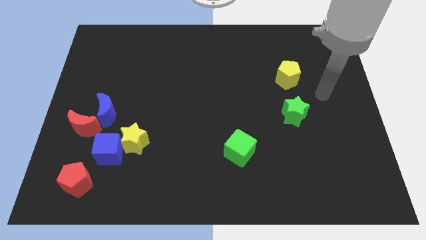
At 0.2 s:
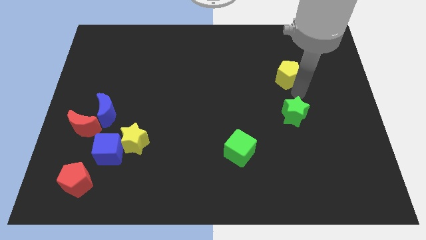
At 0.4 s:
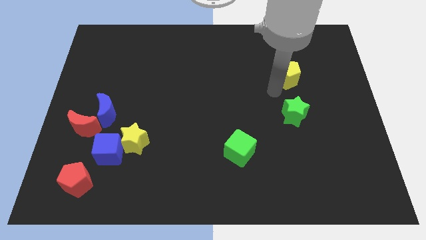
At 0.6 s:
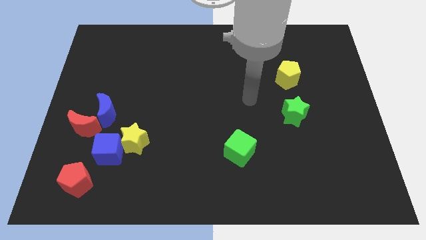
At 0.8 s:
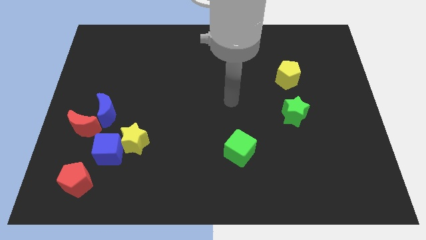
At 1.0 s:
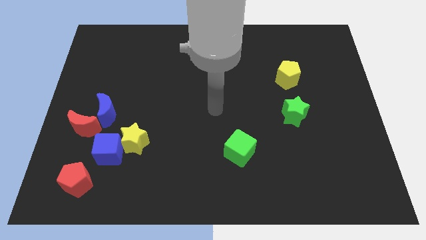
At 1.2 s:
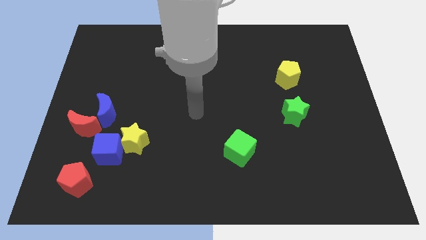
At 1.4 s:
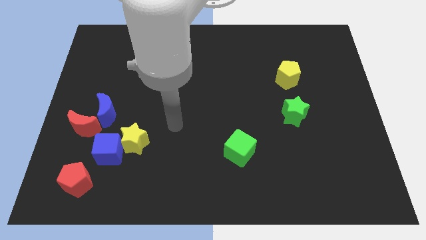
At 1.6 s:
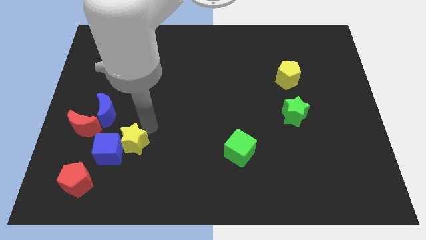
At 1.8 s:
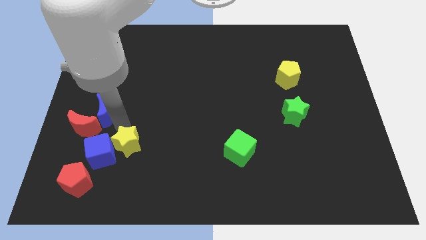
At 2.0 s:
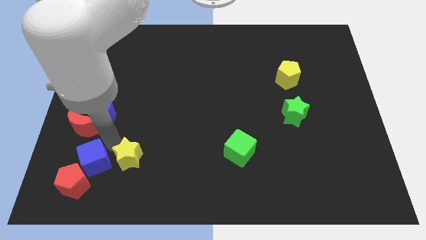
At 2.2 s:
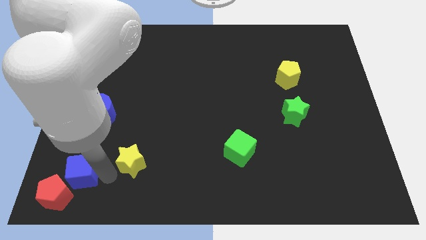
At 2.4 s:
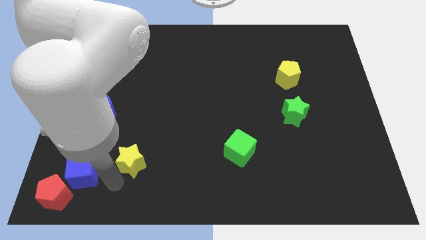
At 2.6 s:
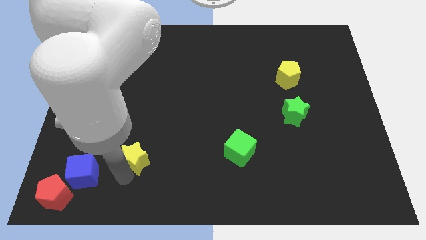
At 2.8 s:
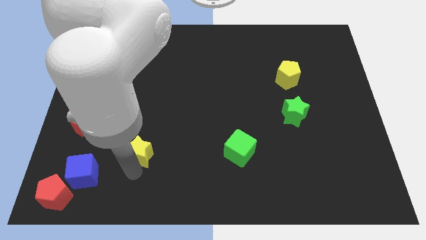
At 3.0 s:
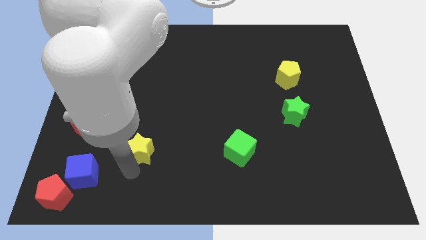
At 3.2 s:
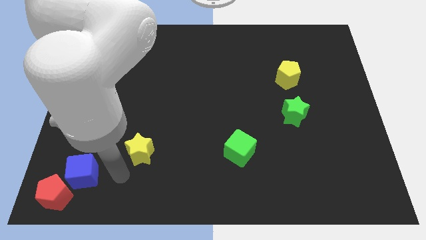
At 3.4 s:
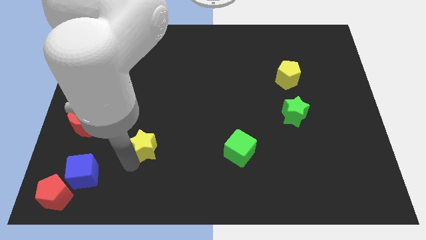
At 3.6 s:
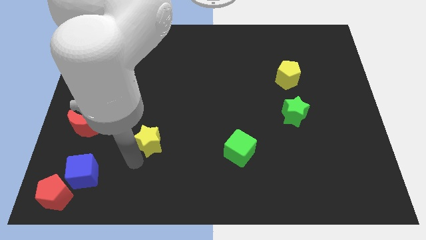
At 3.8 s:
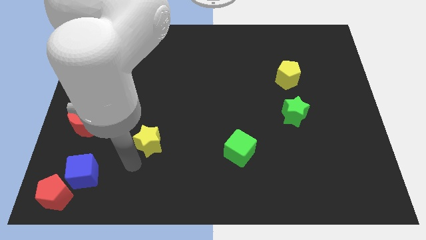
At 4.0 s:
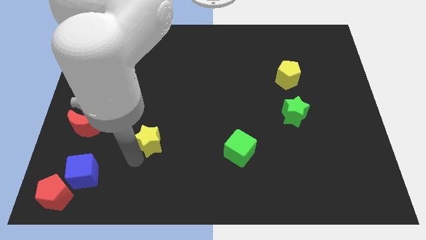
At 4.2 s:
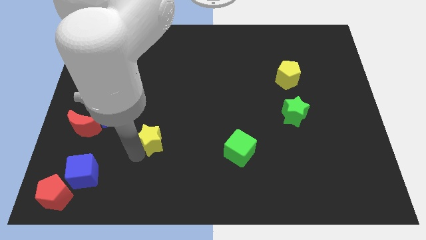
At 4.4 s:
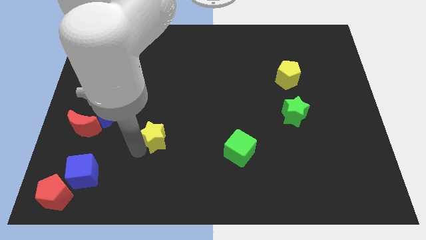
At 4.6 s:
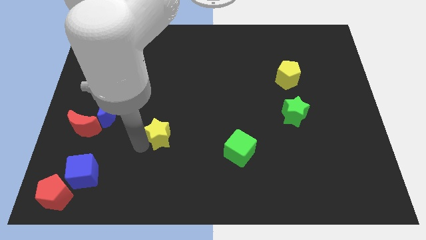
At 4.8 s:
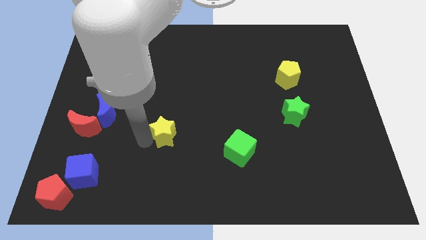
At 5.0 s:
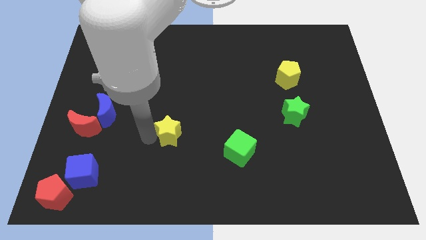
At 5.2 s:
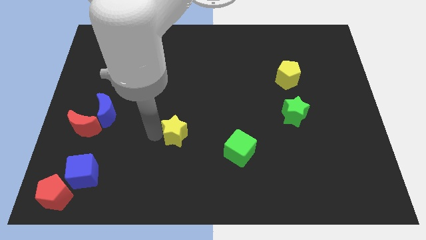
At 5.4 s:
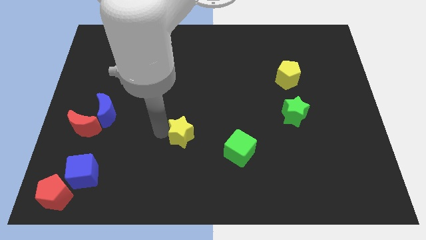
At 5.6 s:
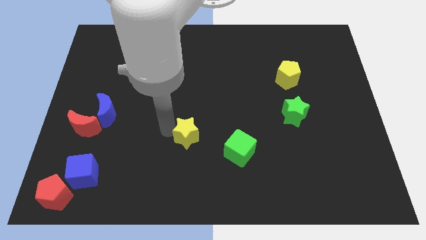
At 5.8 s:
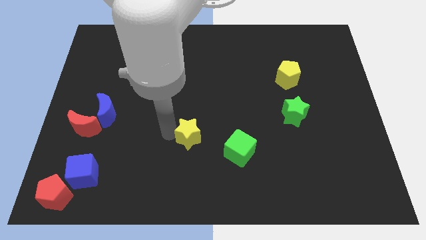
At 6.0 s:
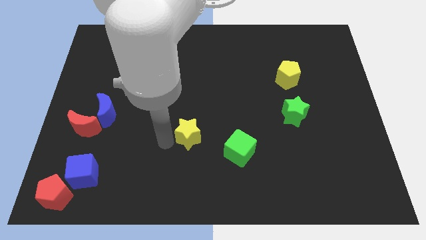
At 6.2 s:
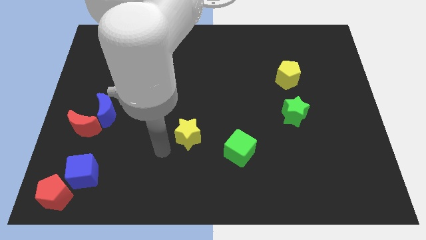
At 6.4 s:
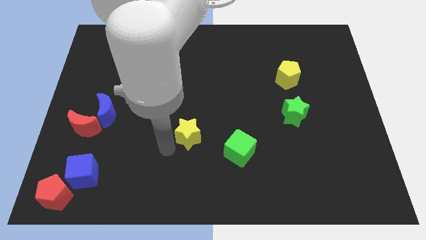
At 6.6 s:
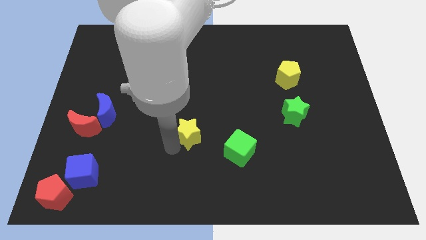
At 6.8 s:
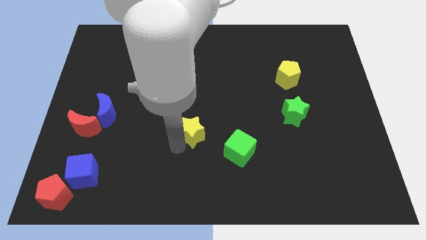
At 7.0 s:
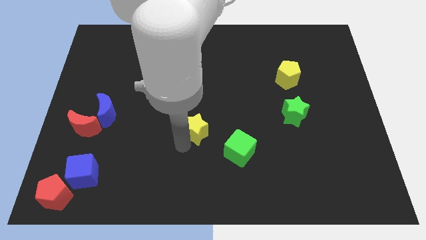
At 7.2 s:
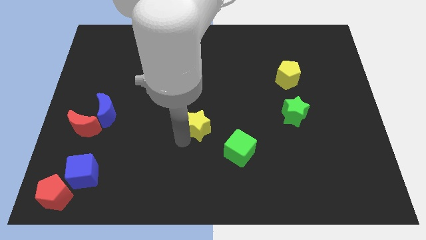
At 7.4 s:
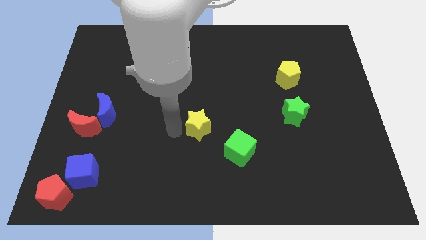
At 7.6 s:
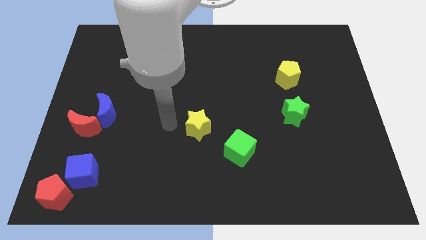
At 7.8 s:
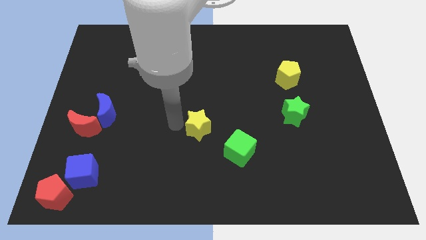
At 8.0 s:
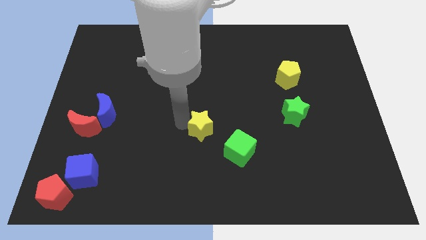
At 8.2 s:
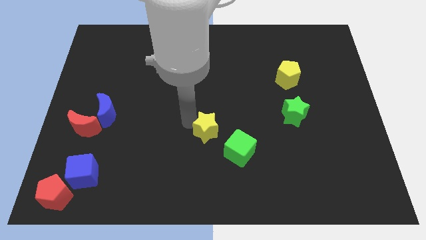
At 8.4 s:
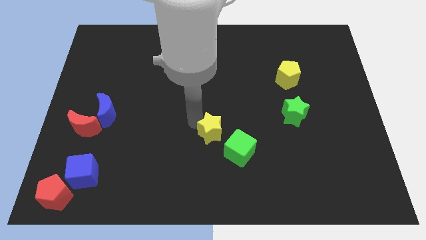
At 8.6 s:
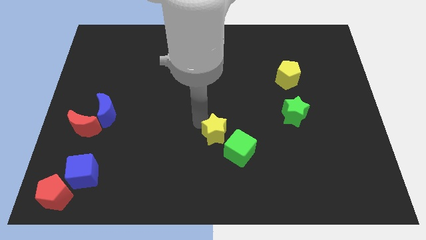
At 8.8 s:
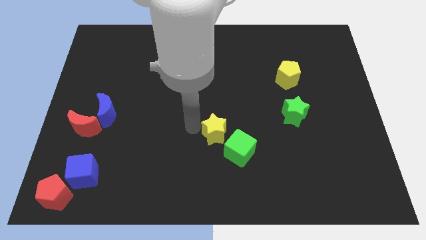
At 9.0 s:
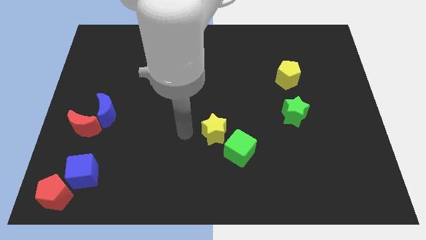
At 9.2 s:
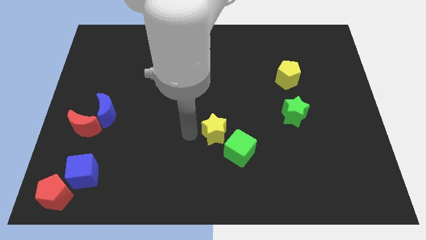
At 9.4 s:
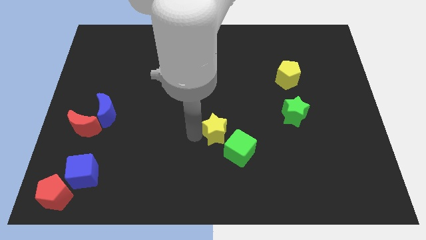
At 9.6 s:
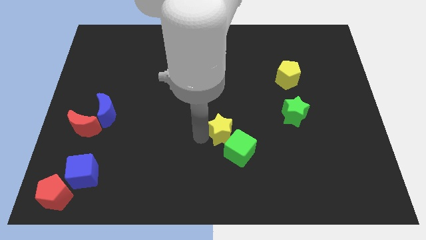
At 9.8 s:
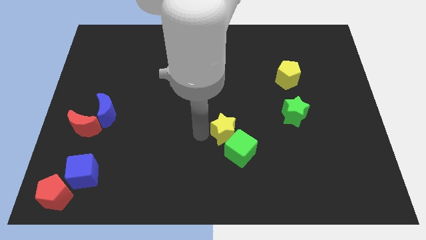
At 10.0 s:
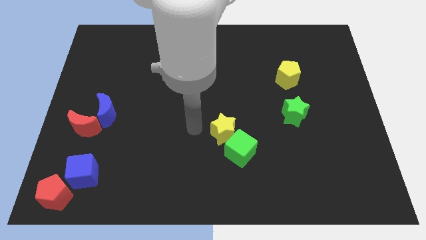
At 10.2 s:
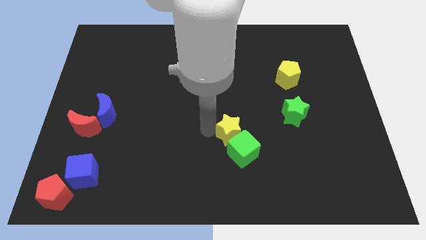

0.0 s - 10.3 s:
move the yellow star to the right

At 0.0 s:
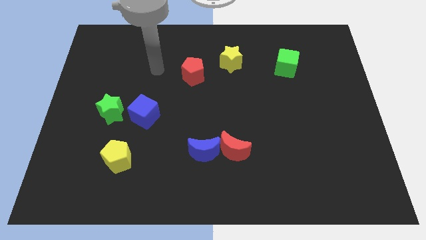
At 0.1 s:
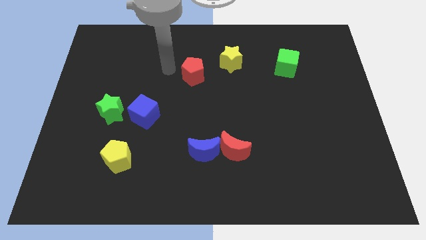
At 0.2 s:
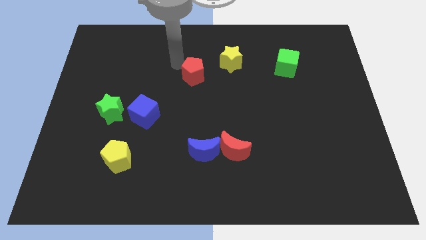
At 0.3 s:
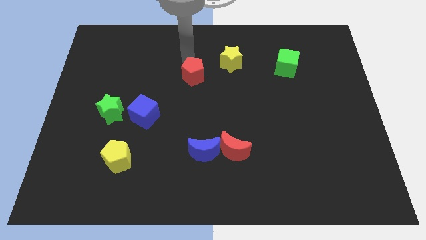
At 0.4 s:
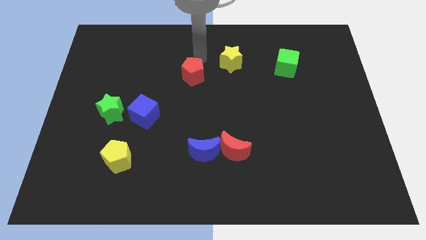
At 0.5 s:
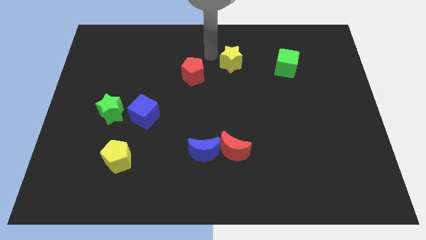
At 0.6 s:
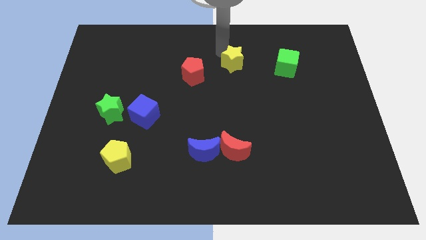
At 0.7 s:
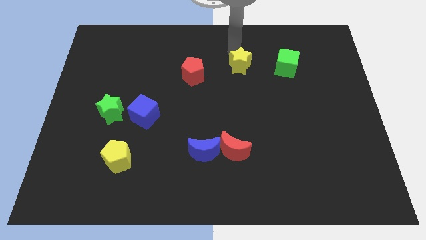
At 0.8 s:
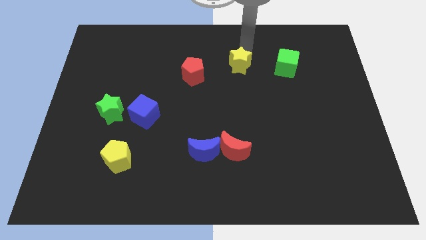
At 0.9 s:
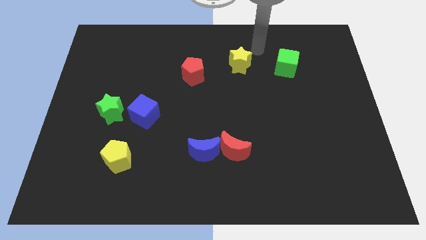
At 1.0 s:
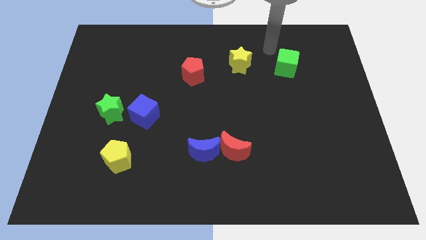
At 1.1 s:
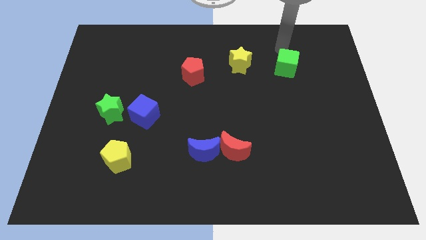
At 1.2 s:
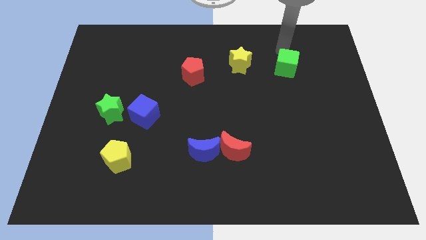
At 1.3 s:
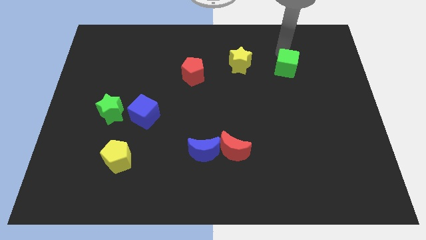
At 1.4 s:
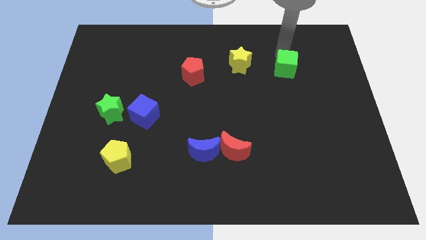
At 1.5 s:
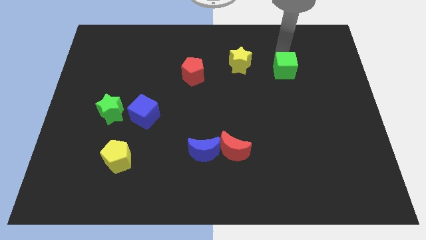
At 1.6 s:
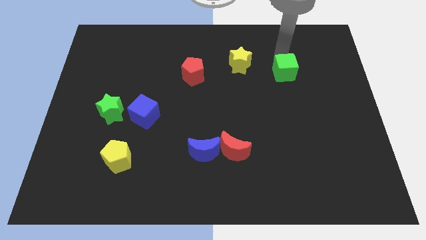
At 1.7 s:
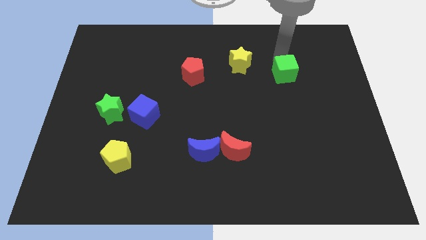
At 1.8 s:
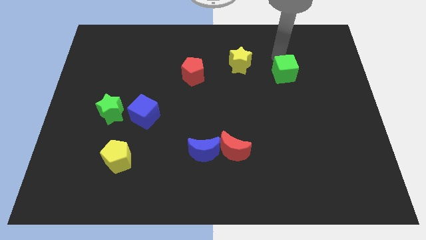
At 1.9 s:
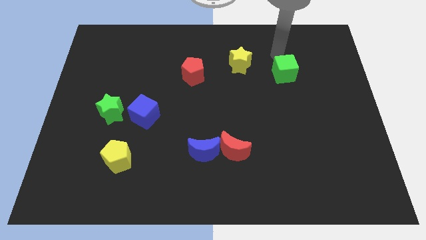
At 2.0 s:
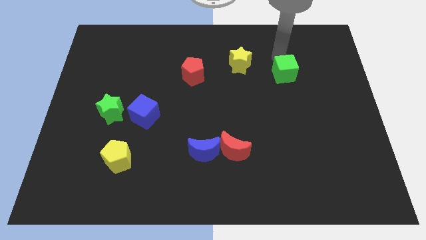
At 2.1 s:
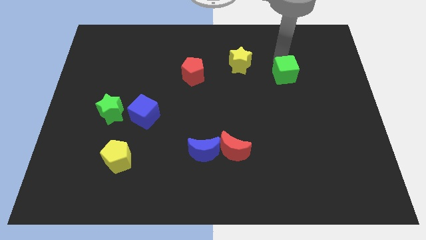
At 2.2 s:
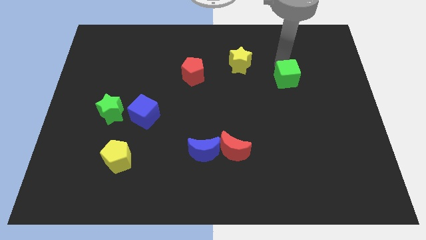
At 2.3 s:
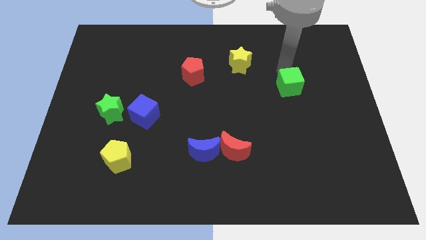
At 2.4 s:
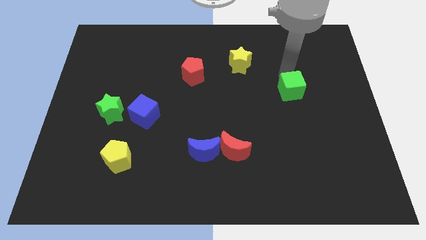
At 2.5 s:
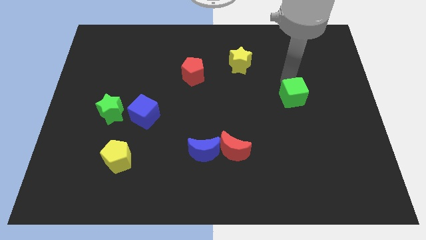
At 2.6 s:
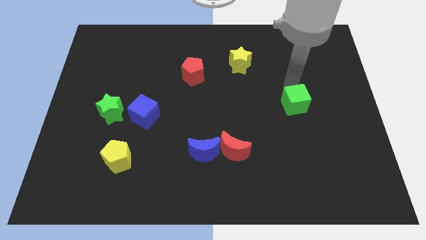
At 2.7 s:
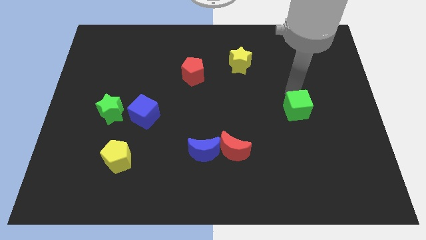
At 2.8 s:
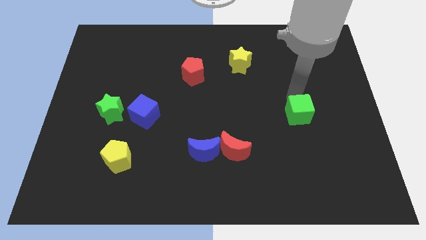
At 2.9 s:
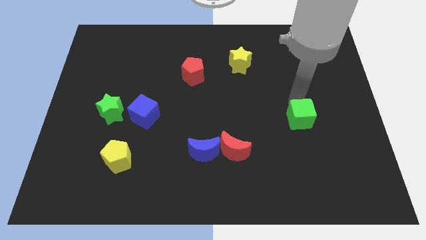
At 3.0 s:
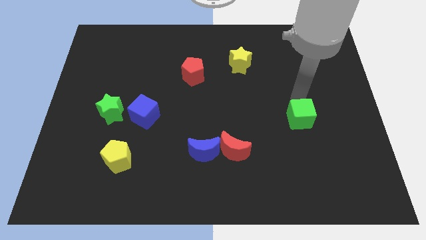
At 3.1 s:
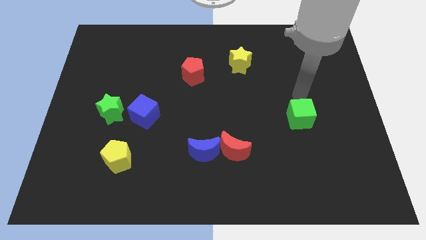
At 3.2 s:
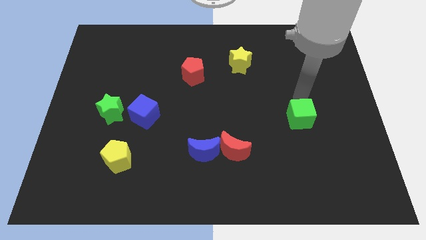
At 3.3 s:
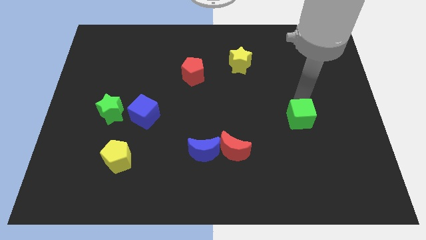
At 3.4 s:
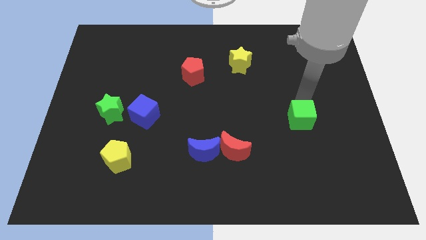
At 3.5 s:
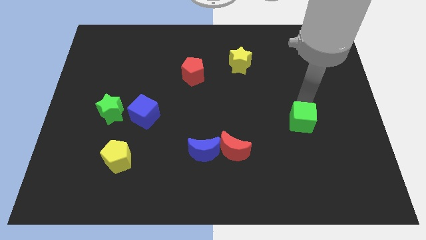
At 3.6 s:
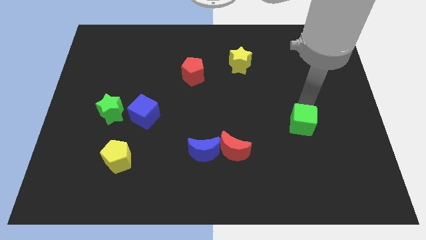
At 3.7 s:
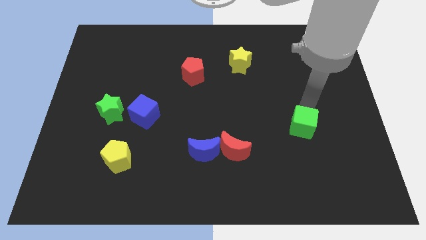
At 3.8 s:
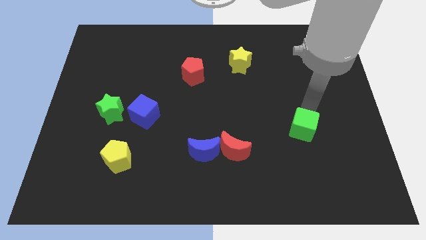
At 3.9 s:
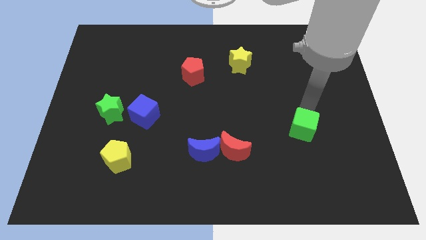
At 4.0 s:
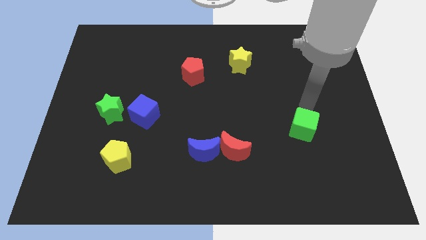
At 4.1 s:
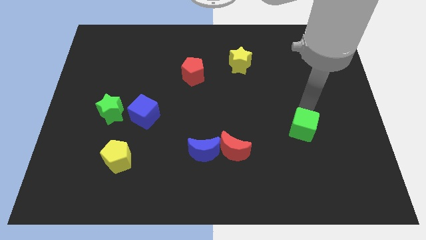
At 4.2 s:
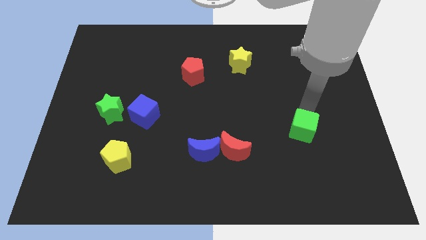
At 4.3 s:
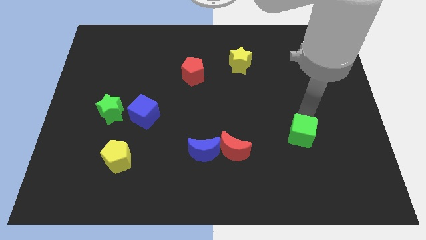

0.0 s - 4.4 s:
push the green cube downwards
